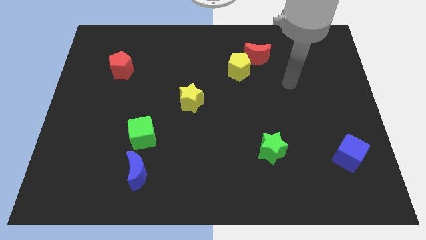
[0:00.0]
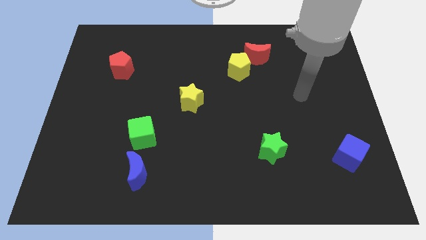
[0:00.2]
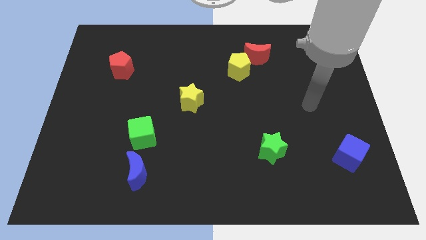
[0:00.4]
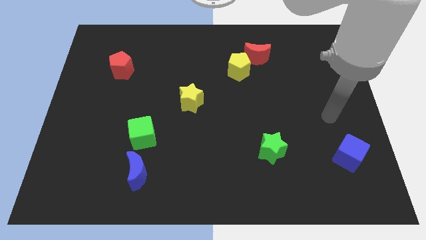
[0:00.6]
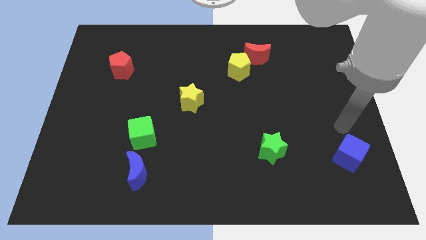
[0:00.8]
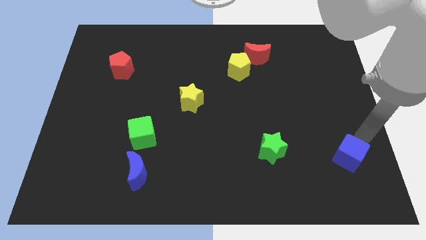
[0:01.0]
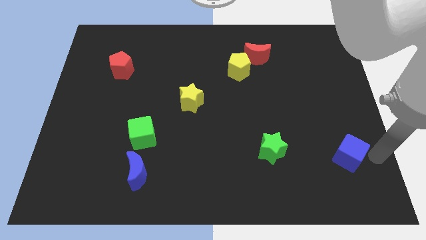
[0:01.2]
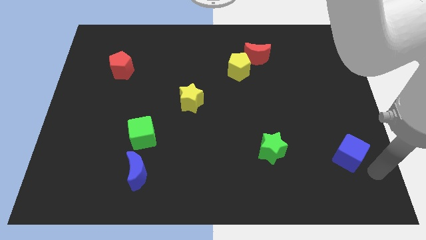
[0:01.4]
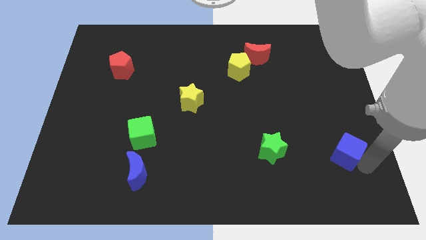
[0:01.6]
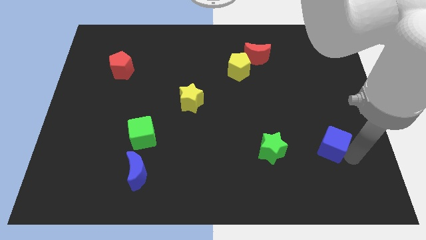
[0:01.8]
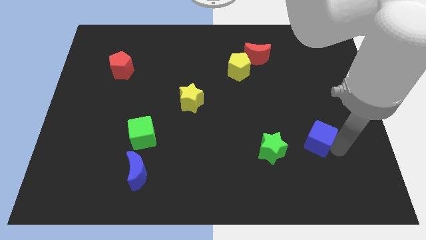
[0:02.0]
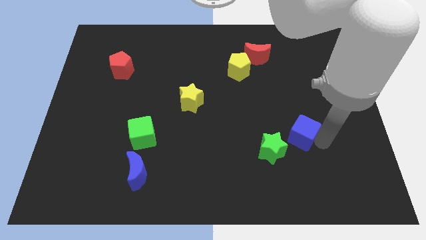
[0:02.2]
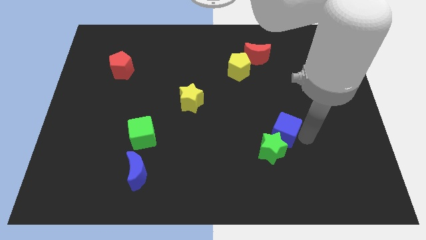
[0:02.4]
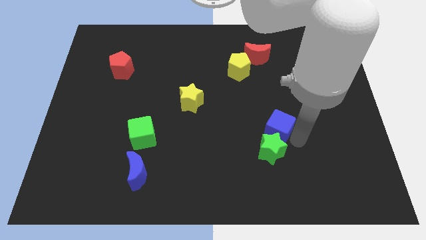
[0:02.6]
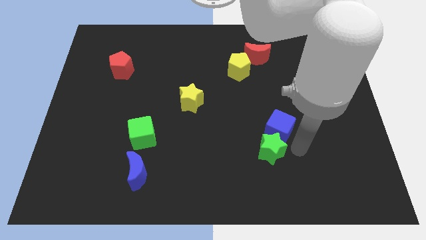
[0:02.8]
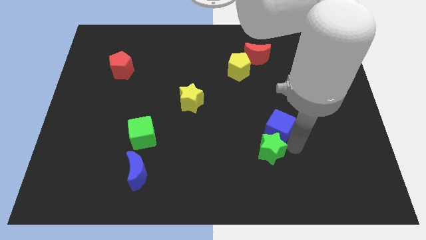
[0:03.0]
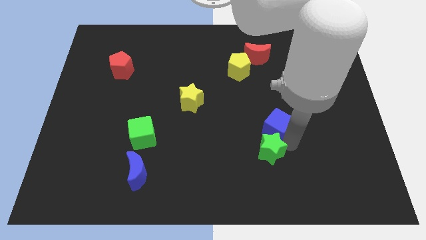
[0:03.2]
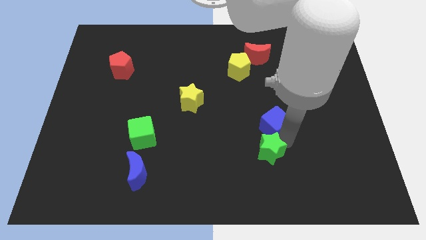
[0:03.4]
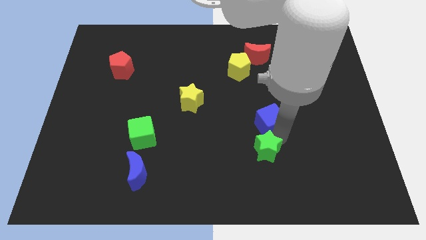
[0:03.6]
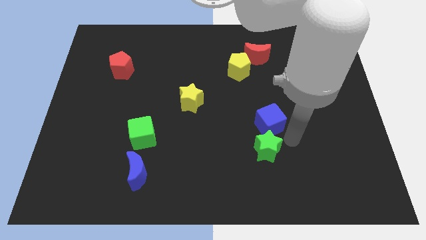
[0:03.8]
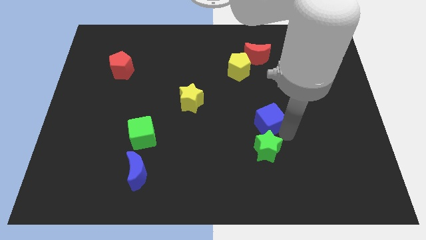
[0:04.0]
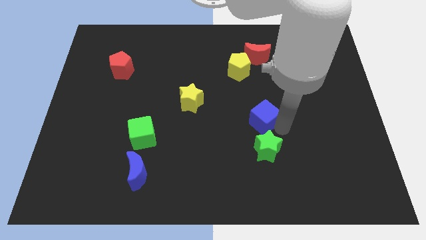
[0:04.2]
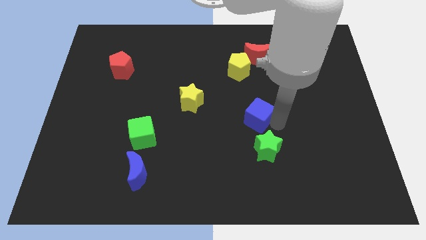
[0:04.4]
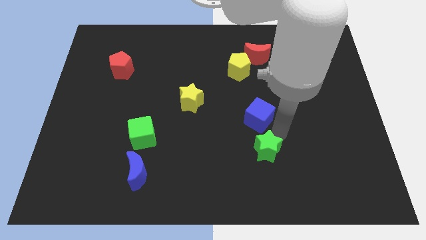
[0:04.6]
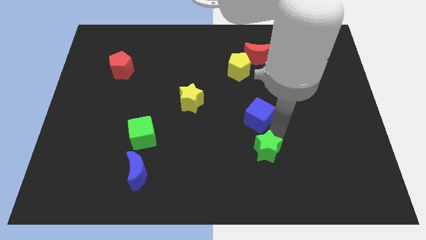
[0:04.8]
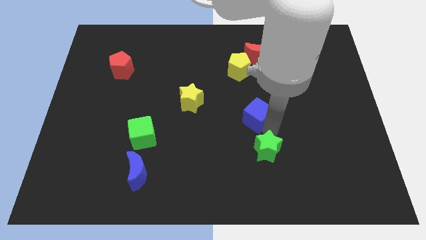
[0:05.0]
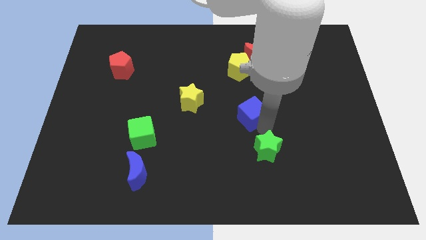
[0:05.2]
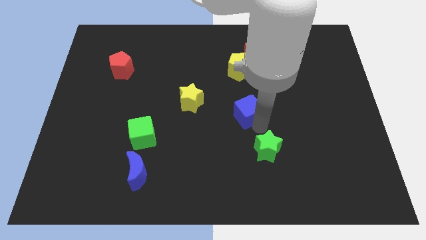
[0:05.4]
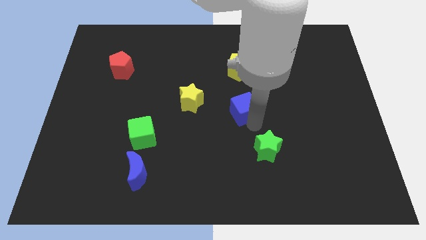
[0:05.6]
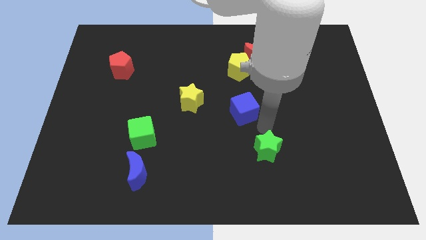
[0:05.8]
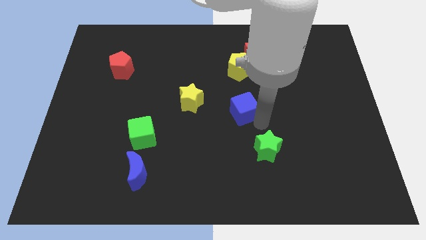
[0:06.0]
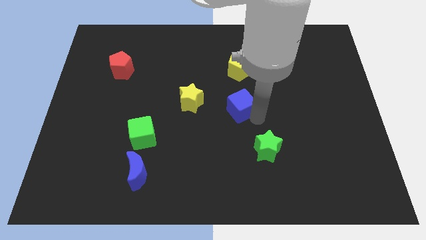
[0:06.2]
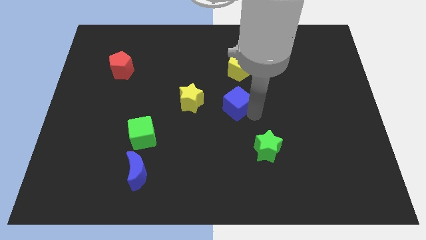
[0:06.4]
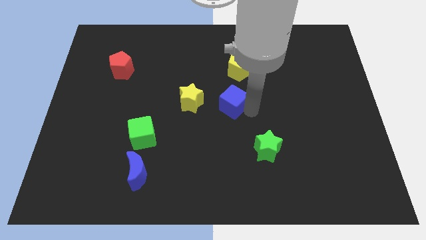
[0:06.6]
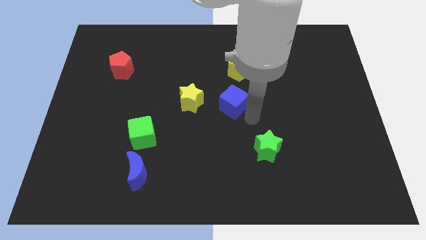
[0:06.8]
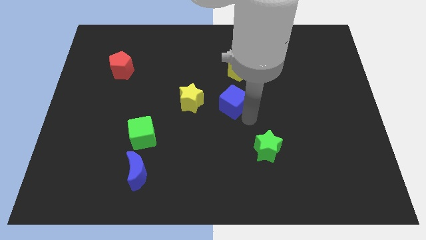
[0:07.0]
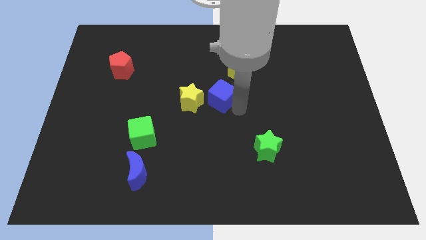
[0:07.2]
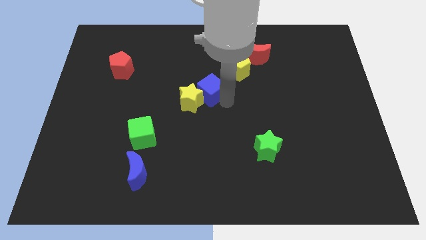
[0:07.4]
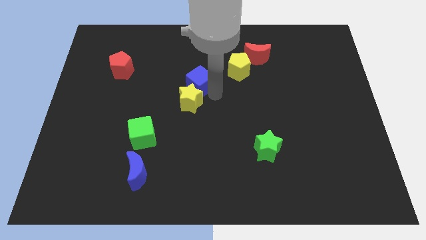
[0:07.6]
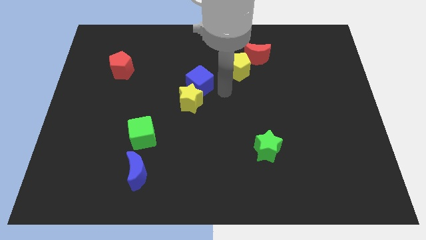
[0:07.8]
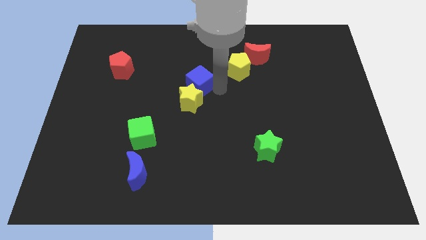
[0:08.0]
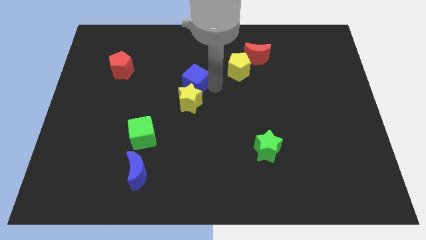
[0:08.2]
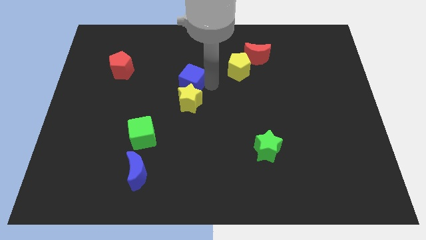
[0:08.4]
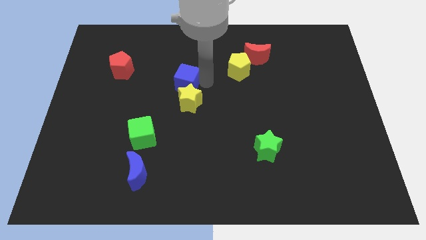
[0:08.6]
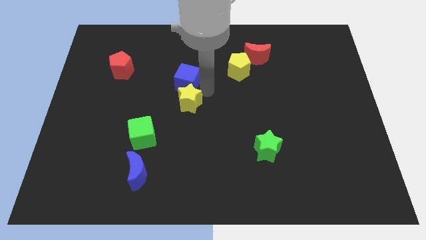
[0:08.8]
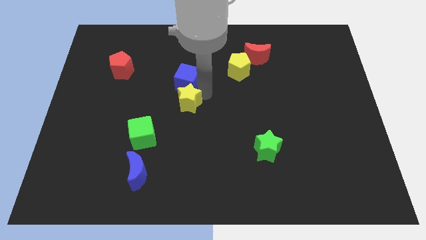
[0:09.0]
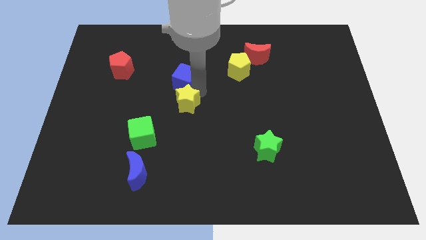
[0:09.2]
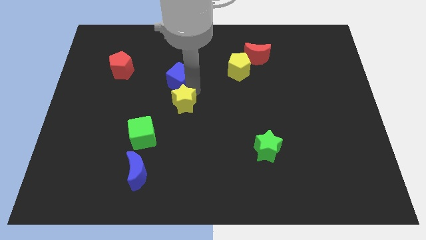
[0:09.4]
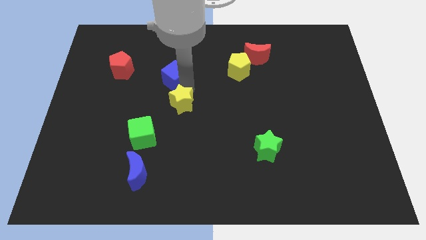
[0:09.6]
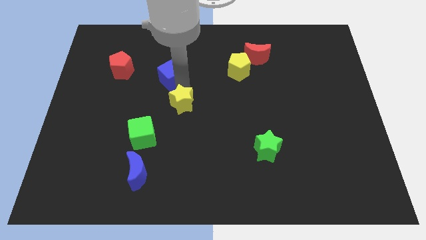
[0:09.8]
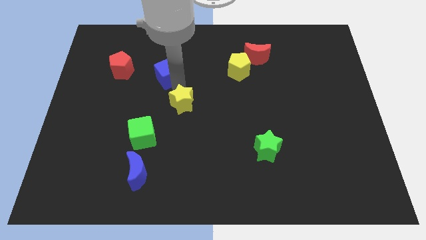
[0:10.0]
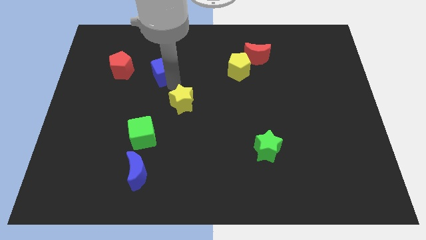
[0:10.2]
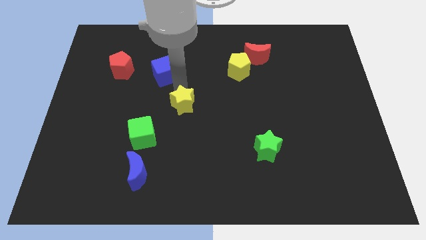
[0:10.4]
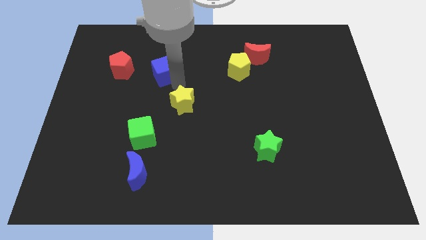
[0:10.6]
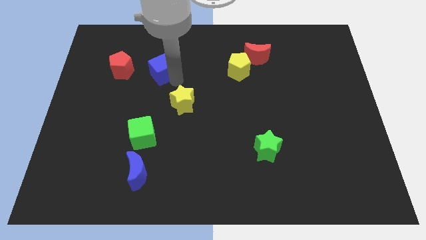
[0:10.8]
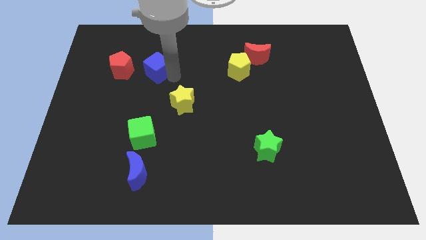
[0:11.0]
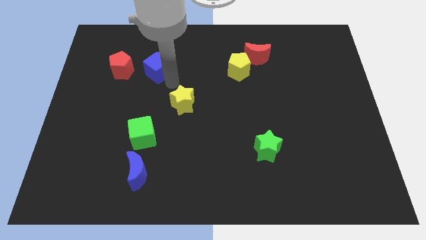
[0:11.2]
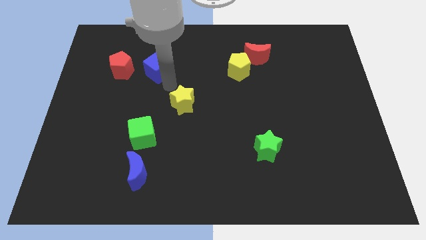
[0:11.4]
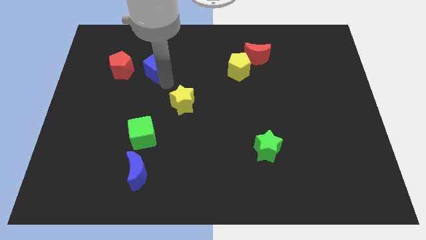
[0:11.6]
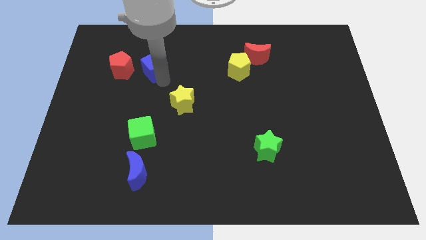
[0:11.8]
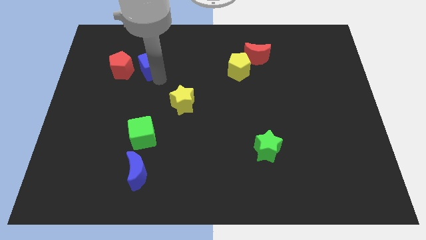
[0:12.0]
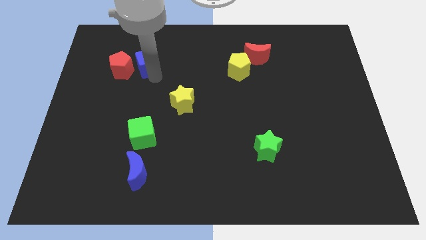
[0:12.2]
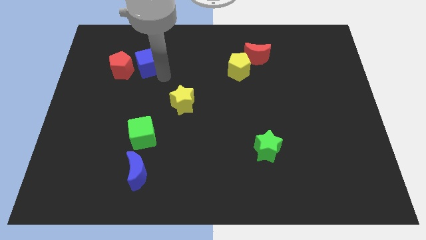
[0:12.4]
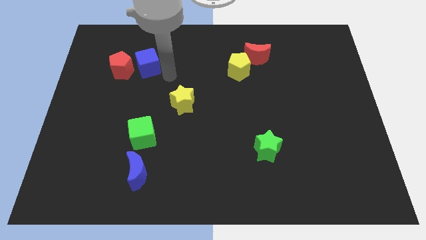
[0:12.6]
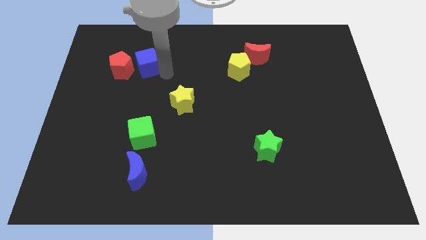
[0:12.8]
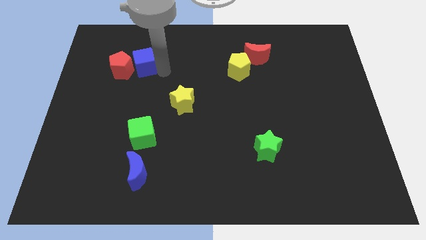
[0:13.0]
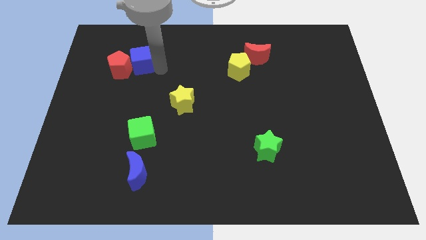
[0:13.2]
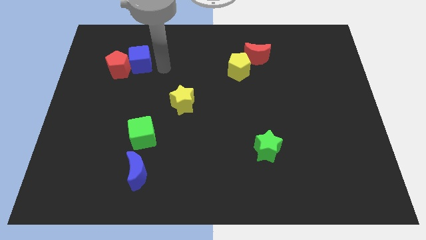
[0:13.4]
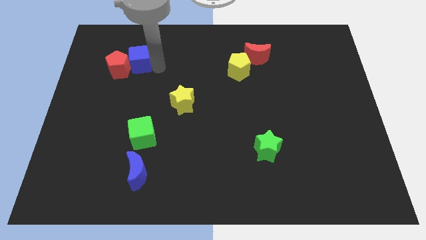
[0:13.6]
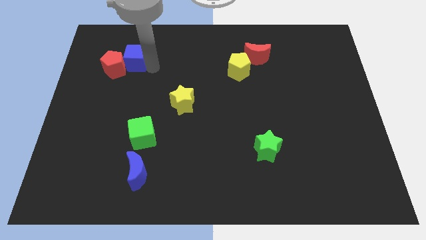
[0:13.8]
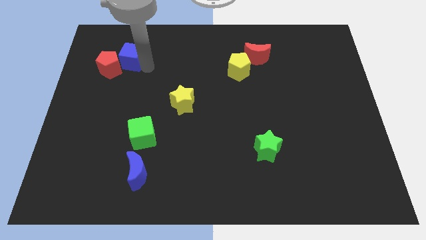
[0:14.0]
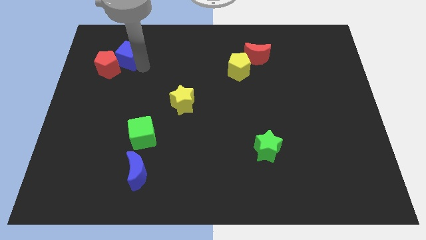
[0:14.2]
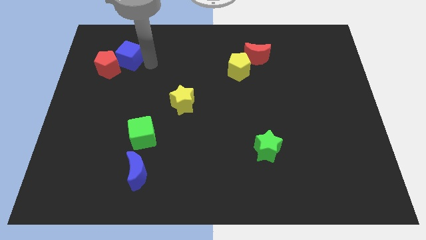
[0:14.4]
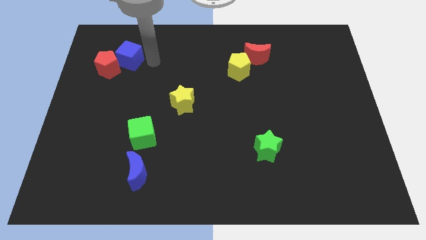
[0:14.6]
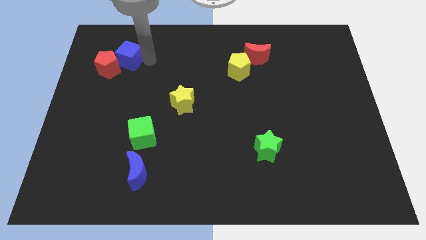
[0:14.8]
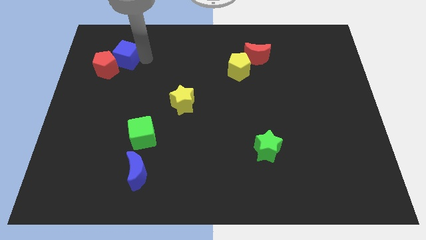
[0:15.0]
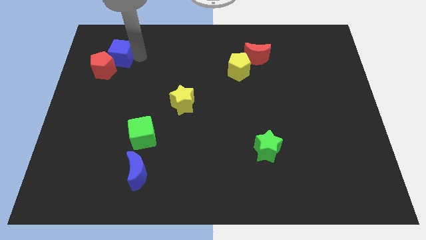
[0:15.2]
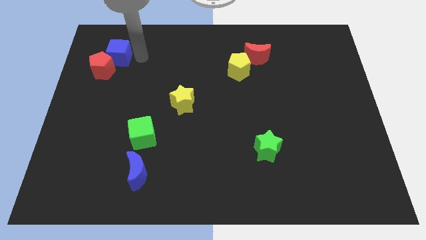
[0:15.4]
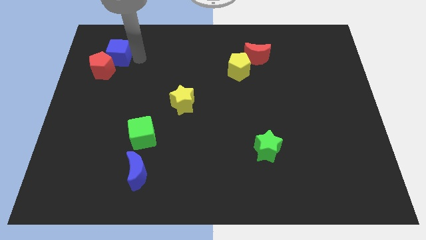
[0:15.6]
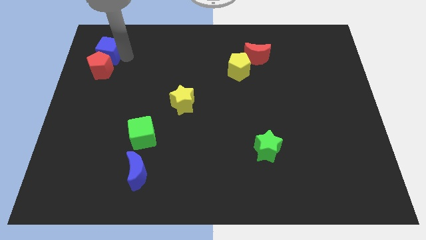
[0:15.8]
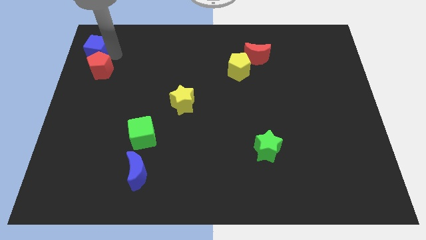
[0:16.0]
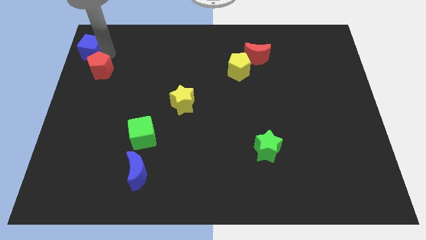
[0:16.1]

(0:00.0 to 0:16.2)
push the blue cube to the upper left corner
